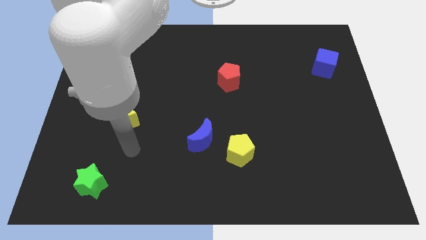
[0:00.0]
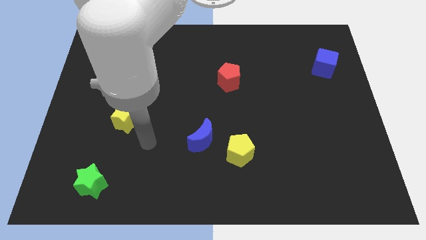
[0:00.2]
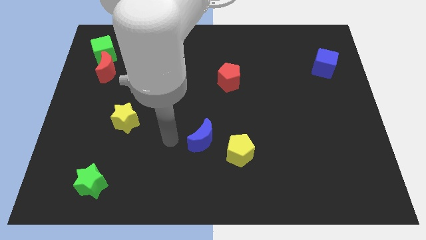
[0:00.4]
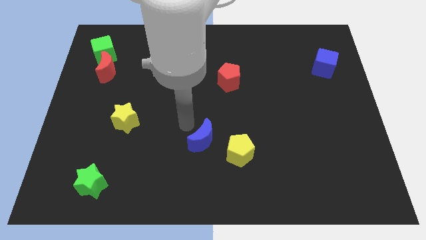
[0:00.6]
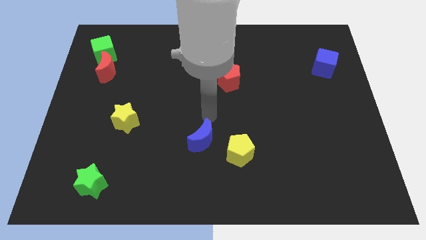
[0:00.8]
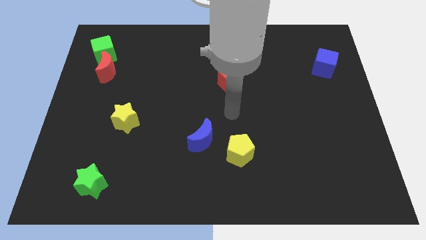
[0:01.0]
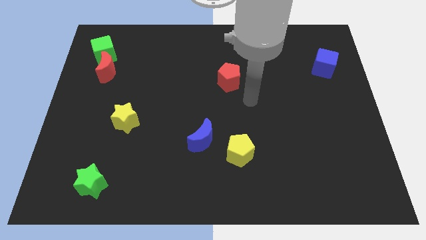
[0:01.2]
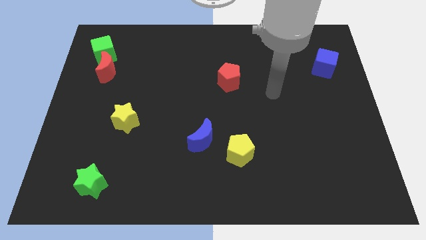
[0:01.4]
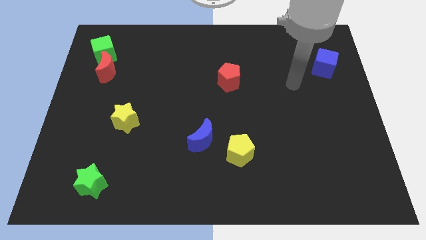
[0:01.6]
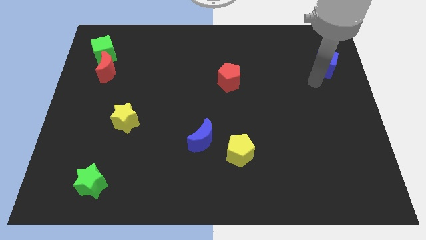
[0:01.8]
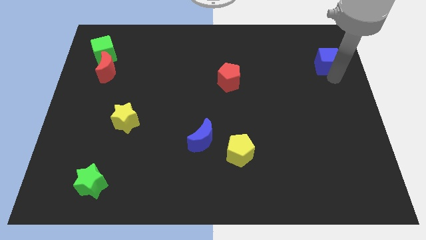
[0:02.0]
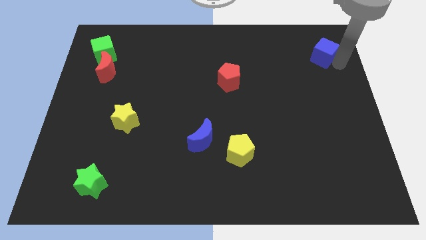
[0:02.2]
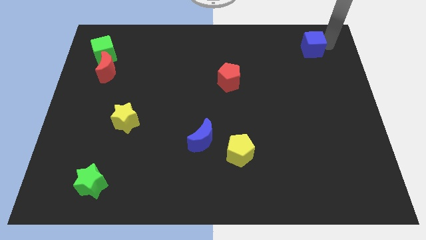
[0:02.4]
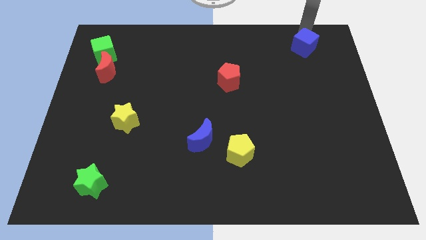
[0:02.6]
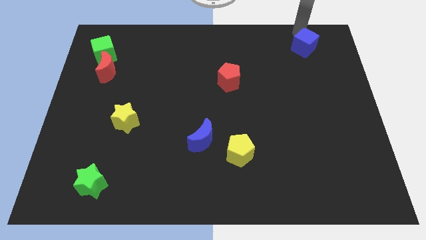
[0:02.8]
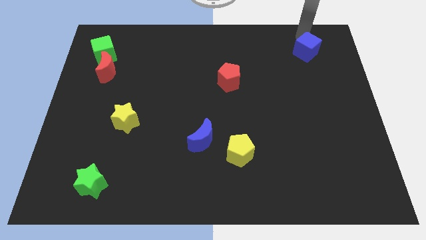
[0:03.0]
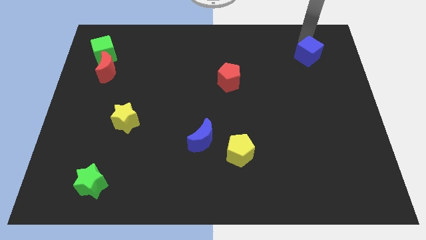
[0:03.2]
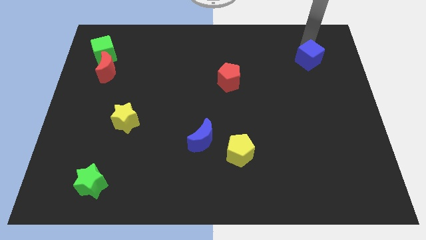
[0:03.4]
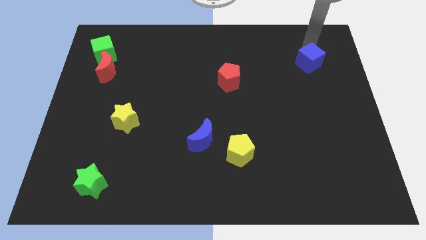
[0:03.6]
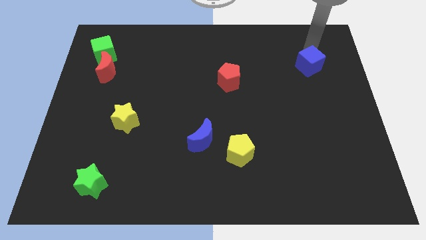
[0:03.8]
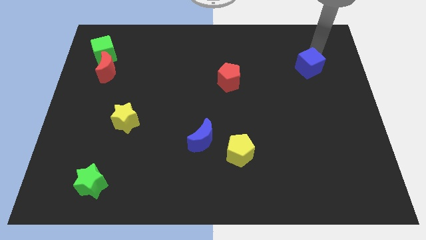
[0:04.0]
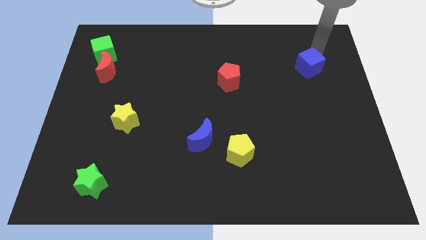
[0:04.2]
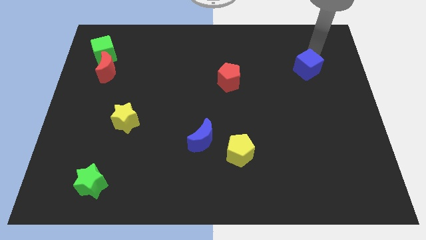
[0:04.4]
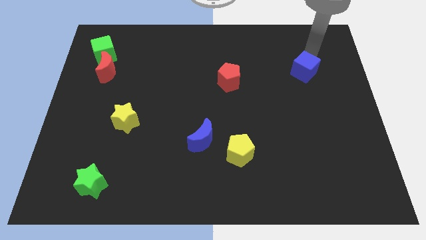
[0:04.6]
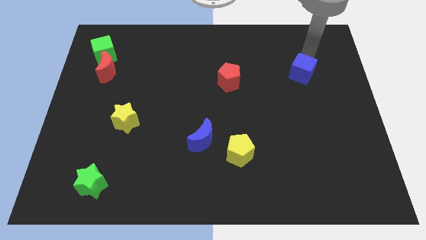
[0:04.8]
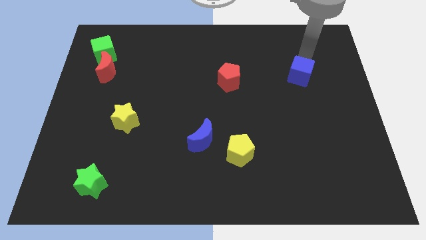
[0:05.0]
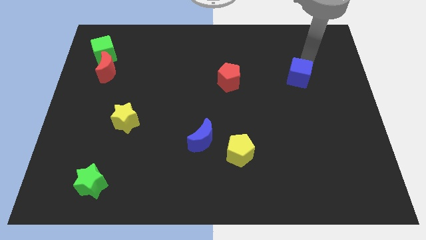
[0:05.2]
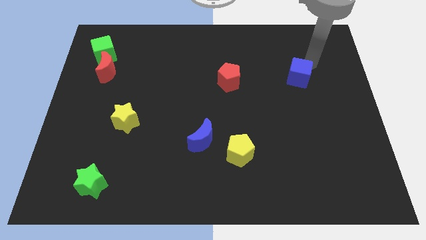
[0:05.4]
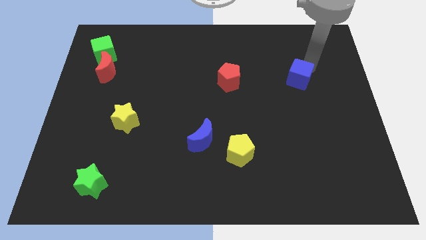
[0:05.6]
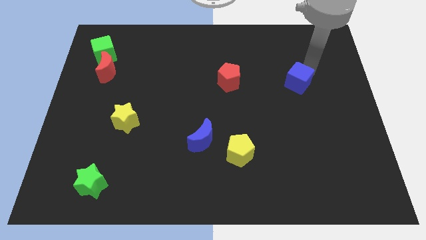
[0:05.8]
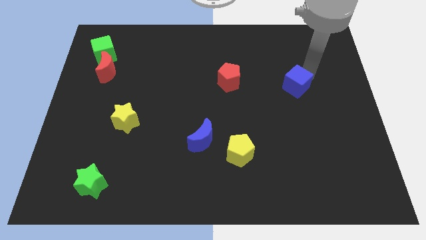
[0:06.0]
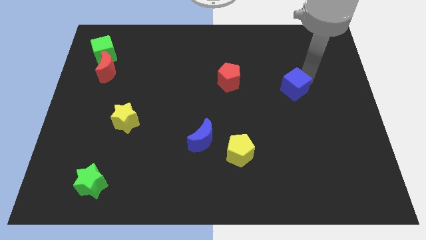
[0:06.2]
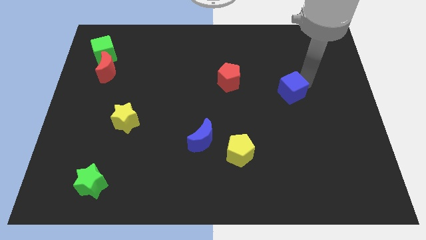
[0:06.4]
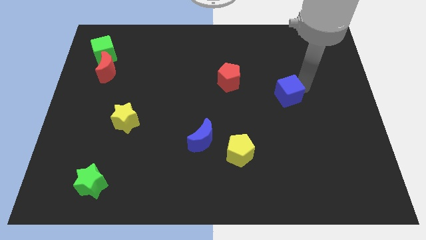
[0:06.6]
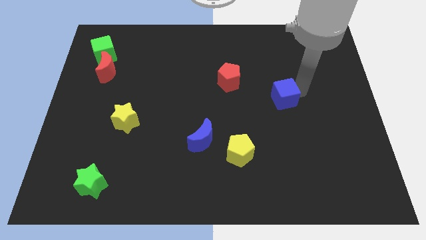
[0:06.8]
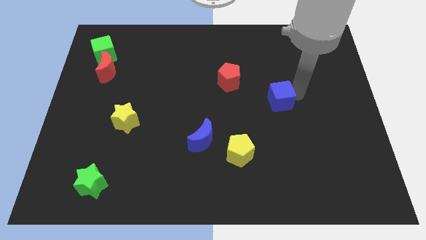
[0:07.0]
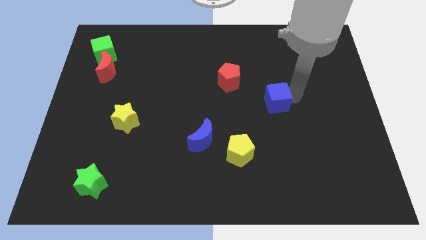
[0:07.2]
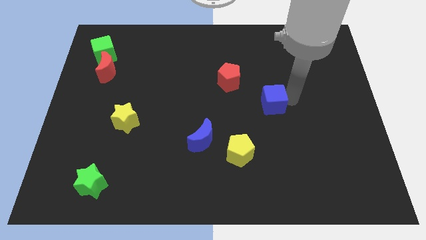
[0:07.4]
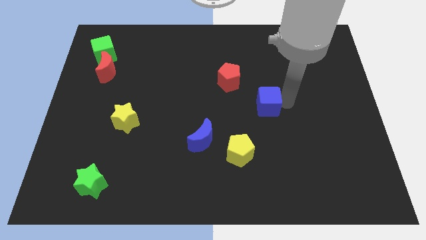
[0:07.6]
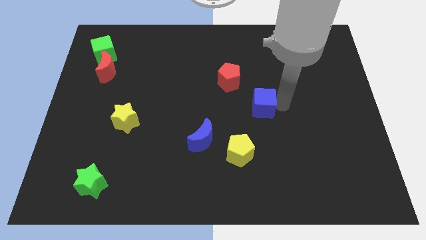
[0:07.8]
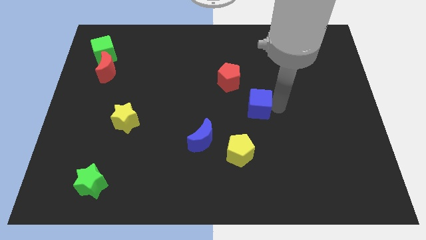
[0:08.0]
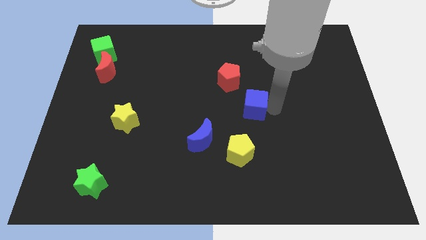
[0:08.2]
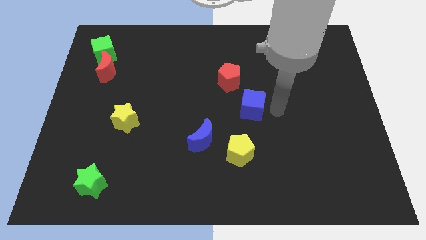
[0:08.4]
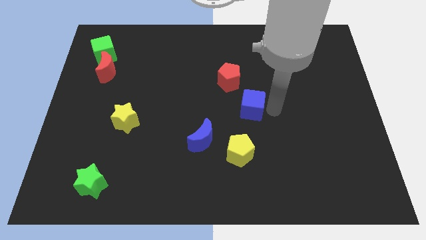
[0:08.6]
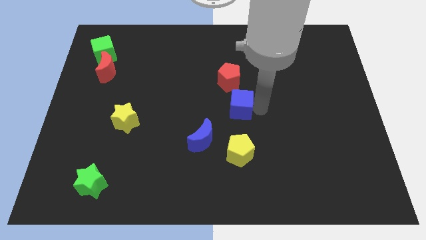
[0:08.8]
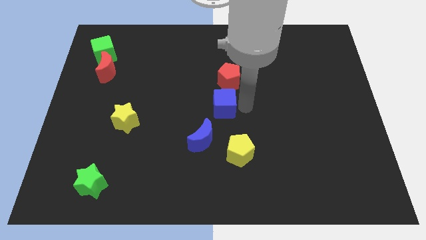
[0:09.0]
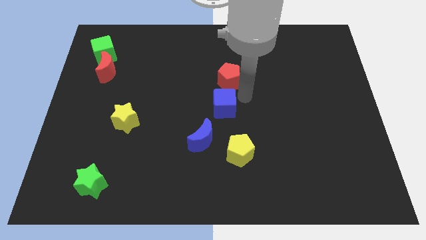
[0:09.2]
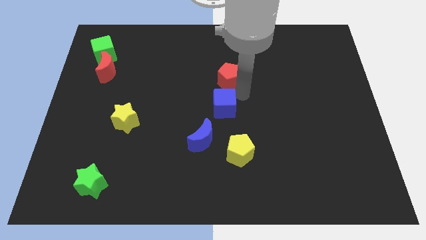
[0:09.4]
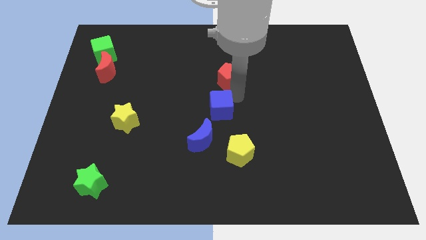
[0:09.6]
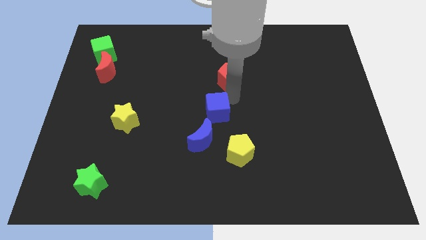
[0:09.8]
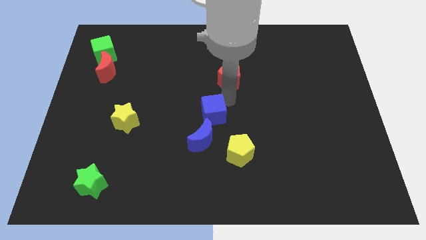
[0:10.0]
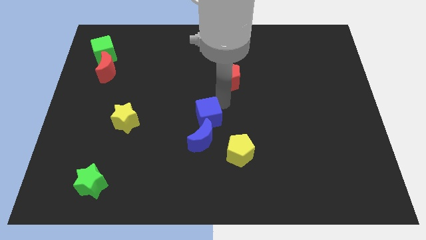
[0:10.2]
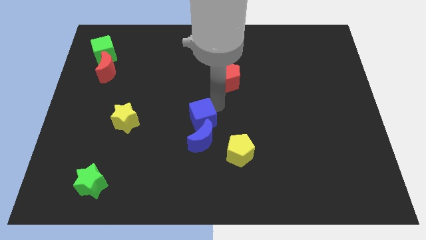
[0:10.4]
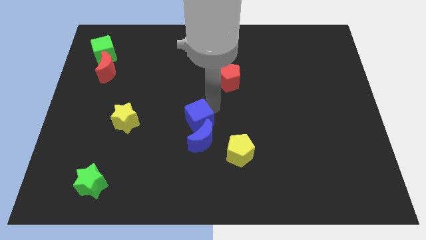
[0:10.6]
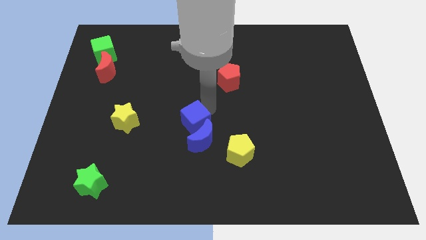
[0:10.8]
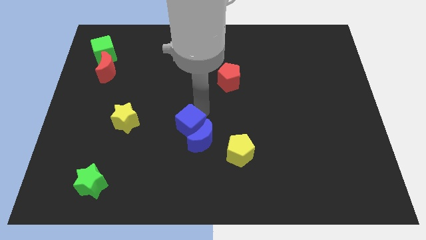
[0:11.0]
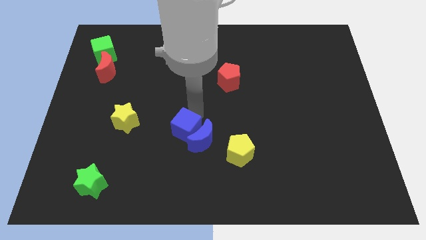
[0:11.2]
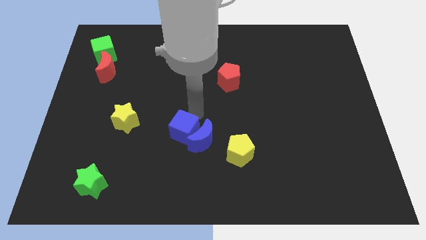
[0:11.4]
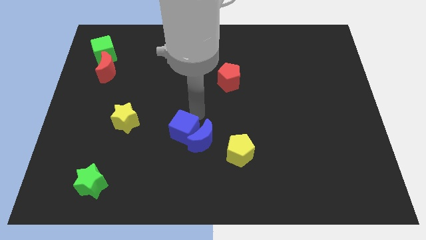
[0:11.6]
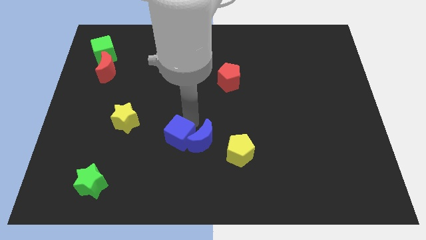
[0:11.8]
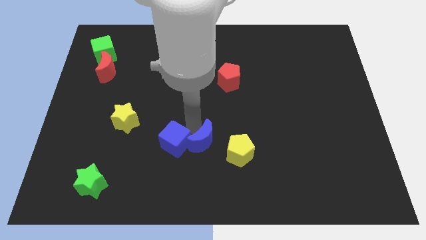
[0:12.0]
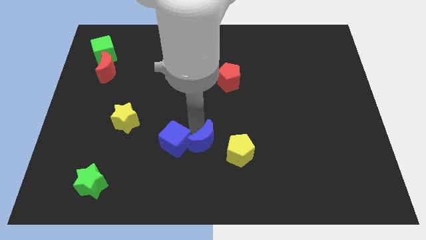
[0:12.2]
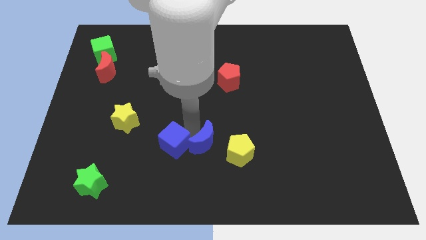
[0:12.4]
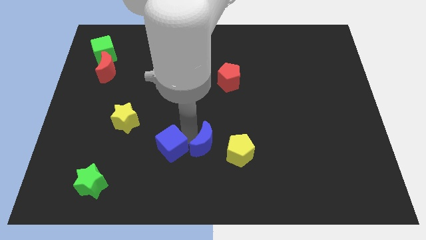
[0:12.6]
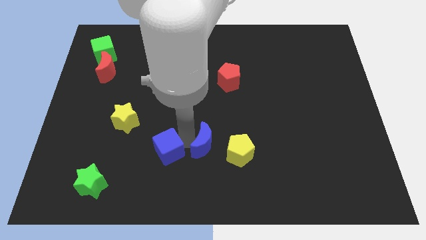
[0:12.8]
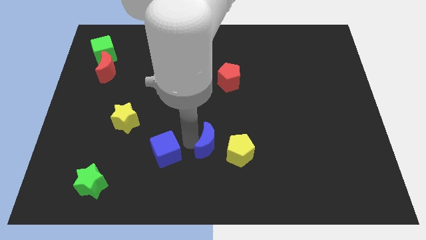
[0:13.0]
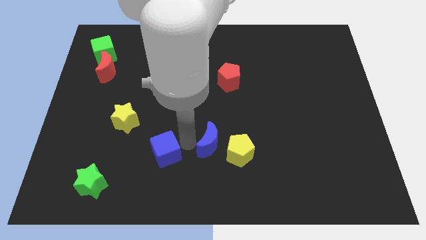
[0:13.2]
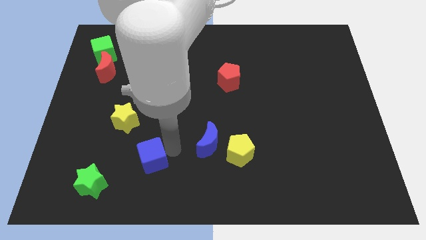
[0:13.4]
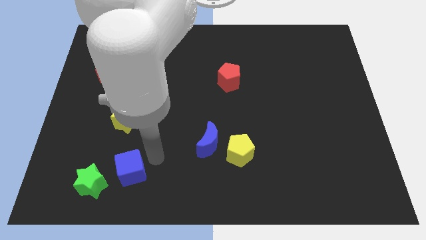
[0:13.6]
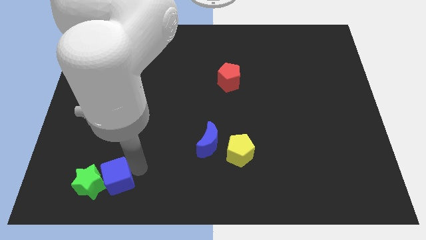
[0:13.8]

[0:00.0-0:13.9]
push the blue cube next to the green star

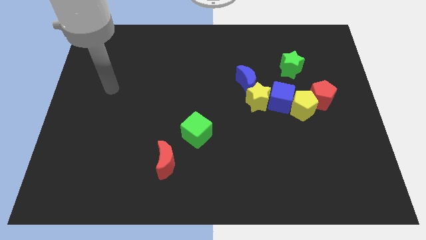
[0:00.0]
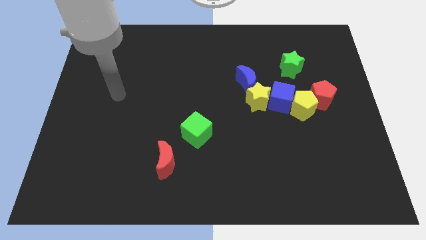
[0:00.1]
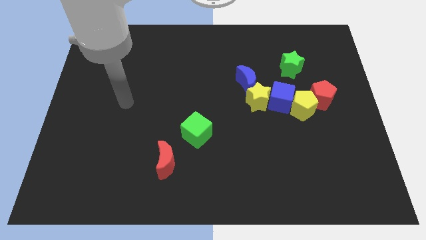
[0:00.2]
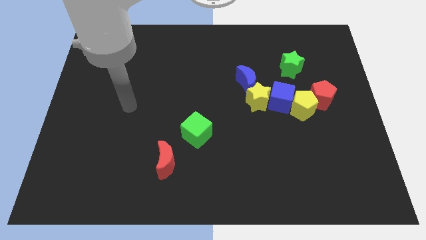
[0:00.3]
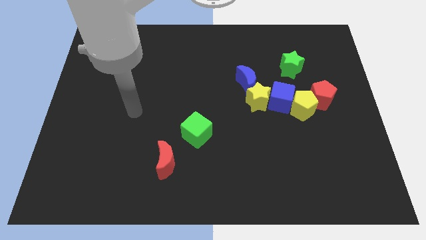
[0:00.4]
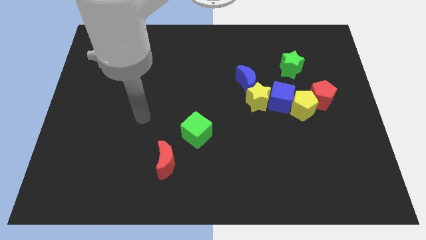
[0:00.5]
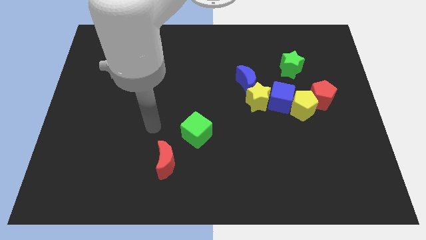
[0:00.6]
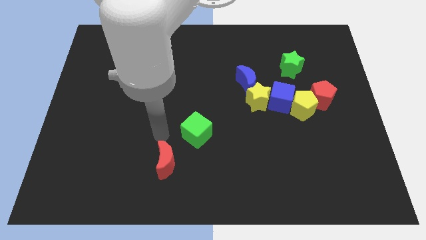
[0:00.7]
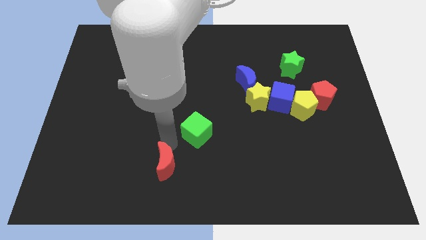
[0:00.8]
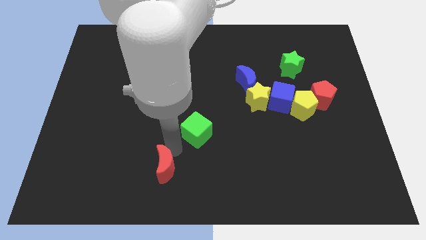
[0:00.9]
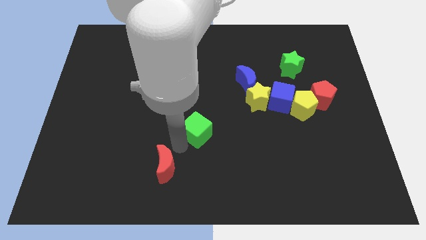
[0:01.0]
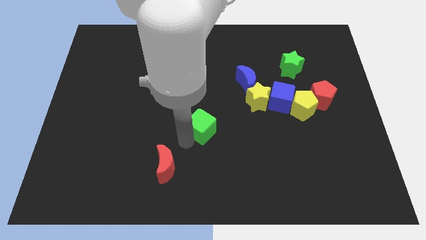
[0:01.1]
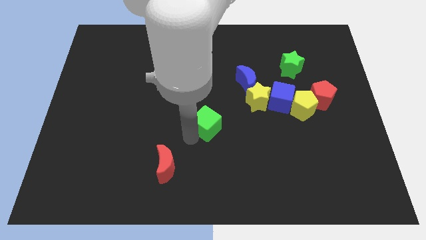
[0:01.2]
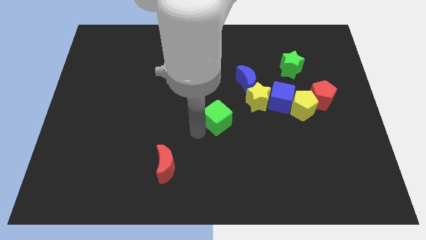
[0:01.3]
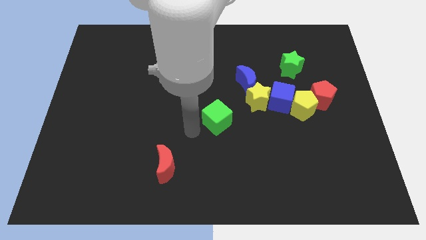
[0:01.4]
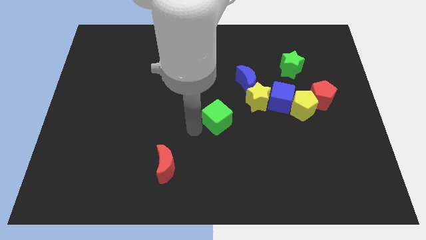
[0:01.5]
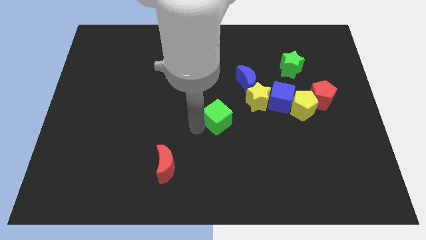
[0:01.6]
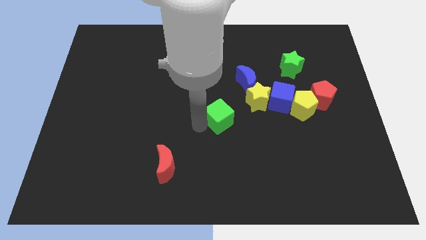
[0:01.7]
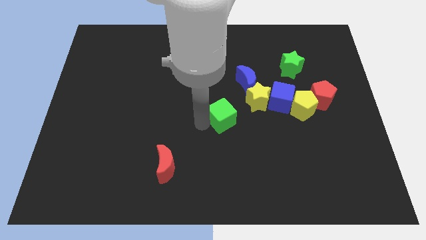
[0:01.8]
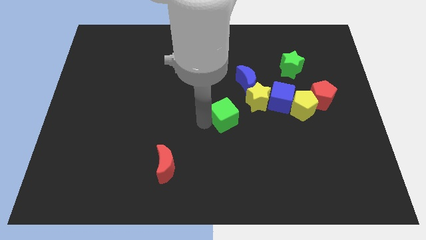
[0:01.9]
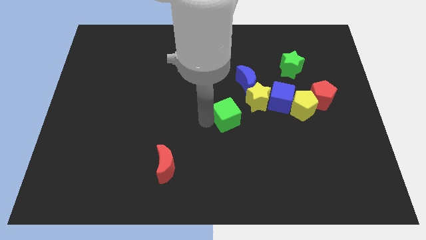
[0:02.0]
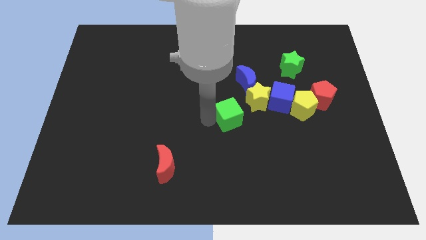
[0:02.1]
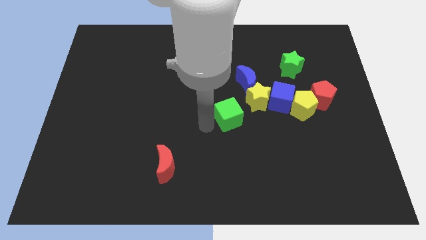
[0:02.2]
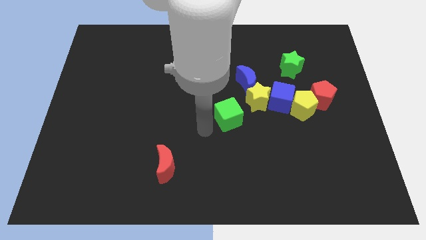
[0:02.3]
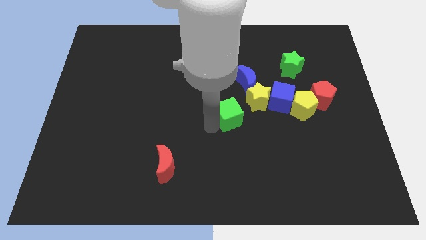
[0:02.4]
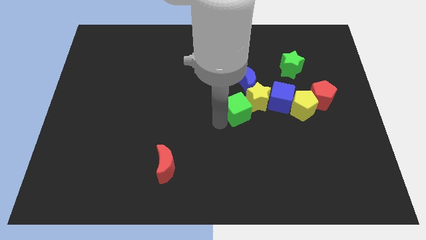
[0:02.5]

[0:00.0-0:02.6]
move the green cube next to the yellow star
